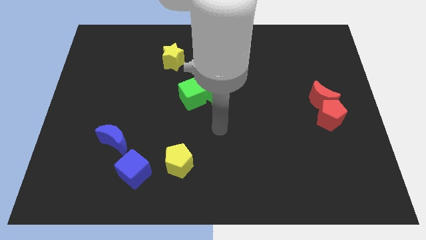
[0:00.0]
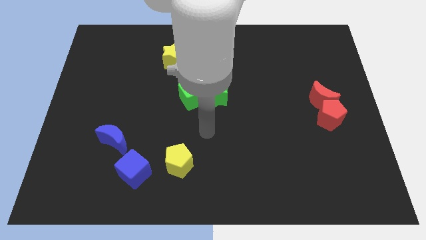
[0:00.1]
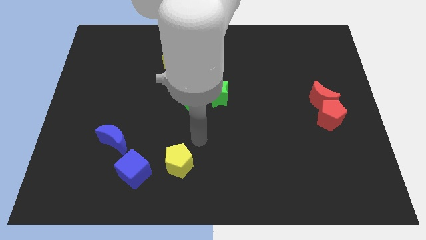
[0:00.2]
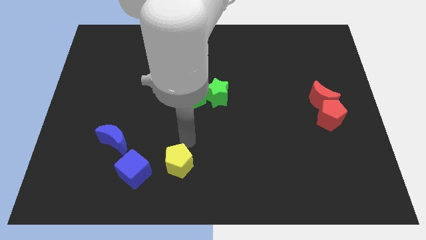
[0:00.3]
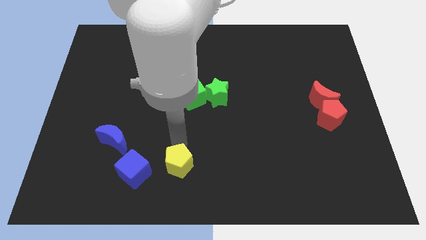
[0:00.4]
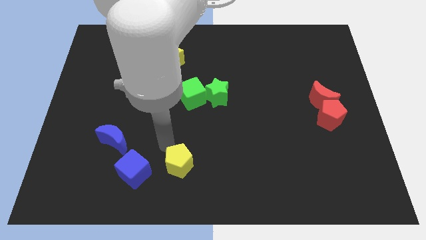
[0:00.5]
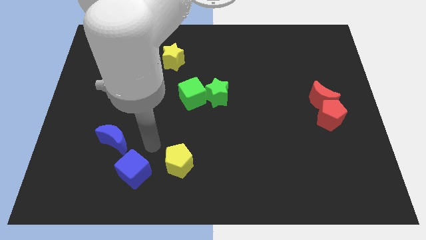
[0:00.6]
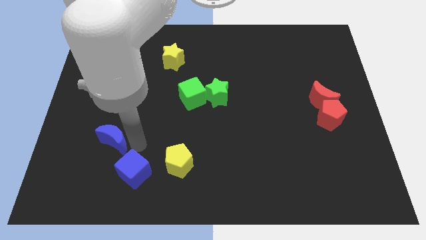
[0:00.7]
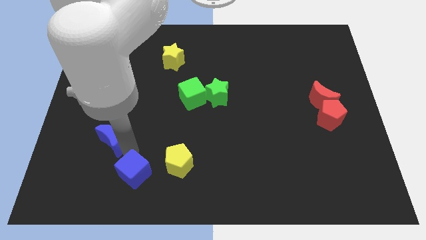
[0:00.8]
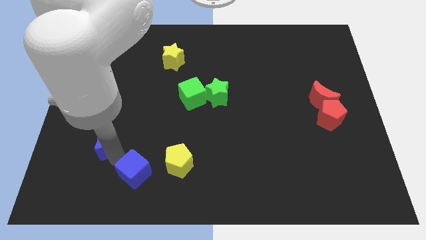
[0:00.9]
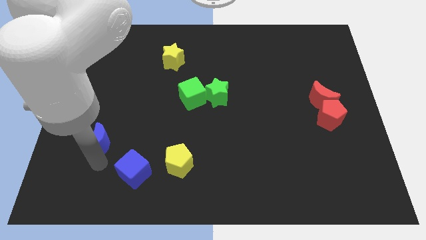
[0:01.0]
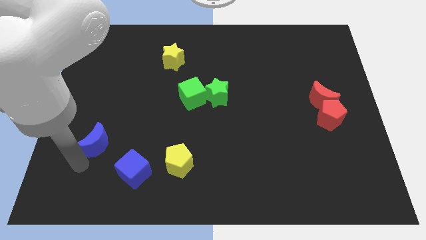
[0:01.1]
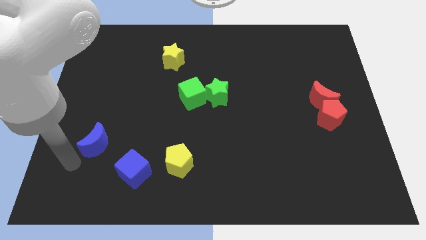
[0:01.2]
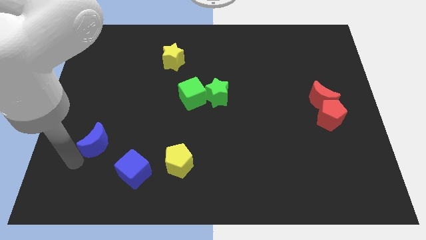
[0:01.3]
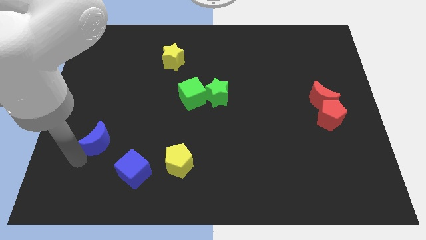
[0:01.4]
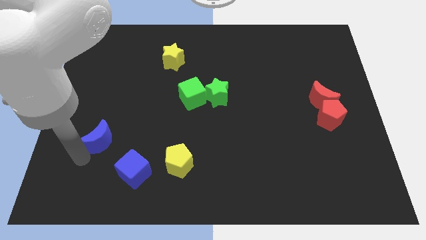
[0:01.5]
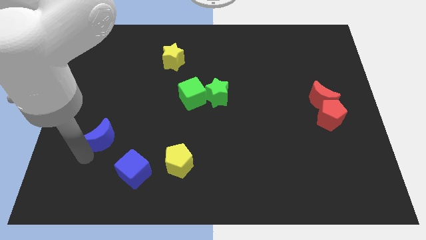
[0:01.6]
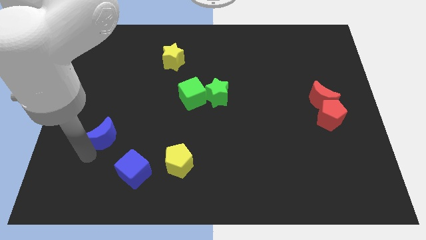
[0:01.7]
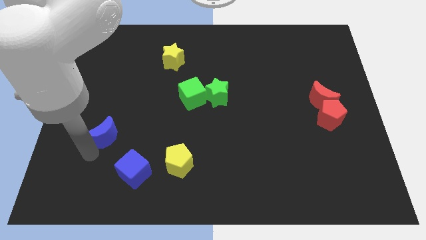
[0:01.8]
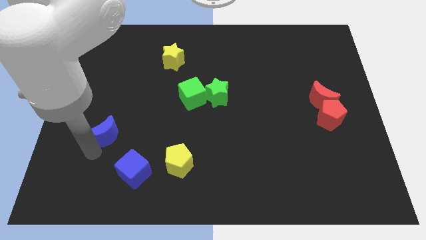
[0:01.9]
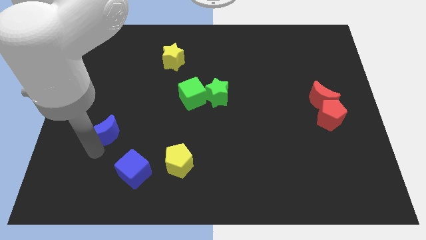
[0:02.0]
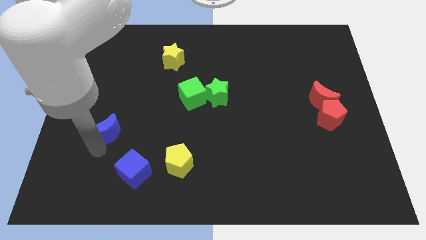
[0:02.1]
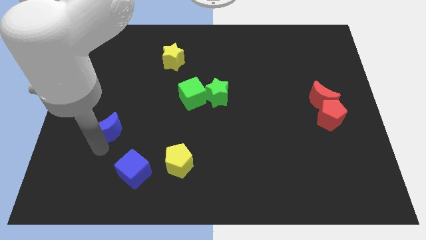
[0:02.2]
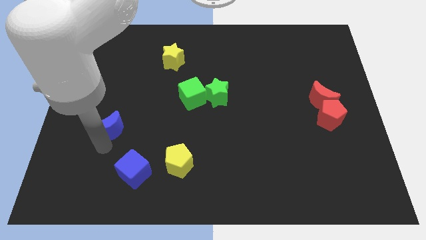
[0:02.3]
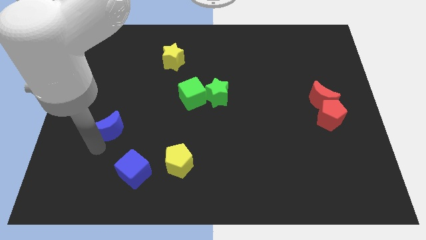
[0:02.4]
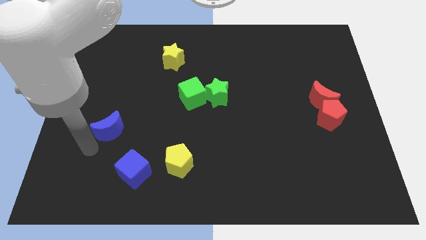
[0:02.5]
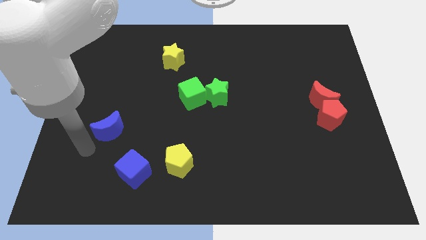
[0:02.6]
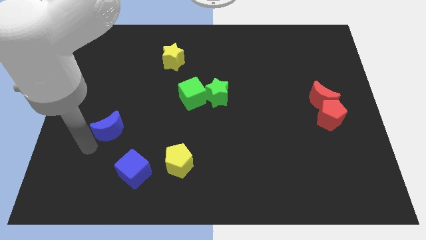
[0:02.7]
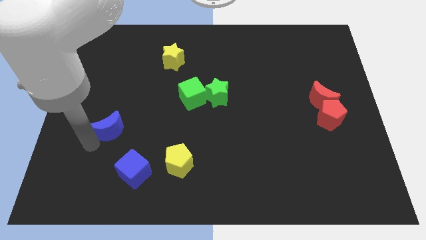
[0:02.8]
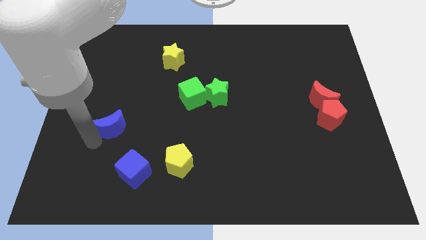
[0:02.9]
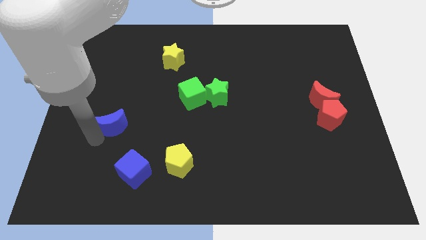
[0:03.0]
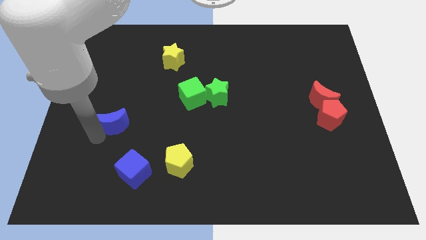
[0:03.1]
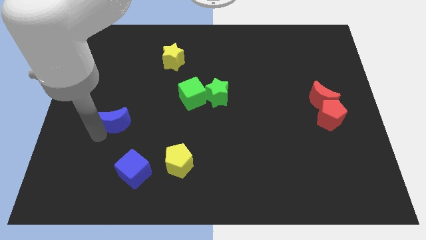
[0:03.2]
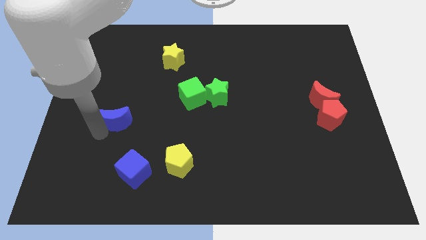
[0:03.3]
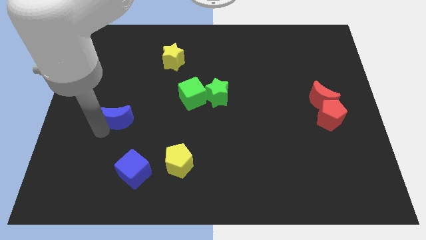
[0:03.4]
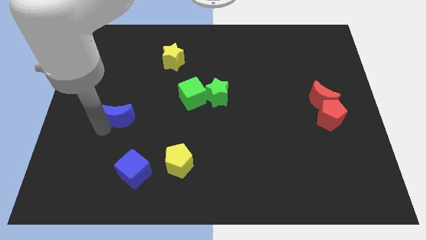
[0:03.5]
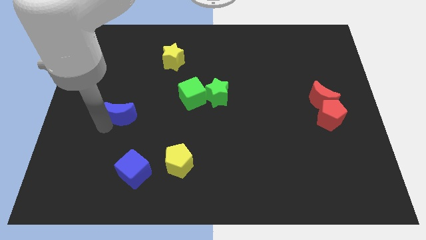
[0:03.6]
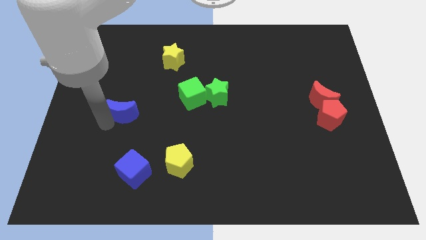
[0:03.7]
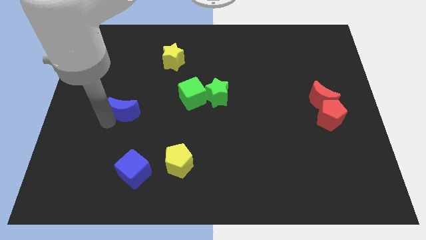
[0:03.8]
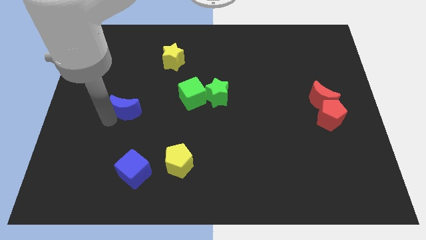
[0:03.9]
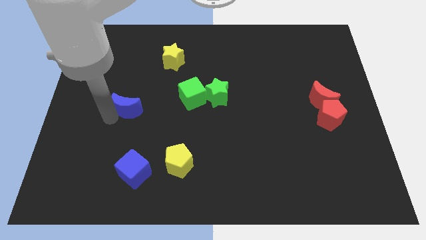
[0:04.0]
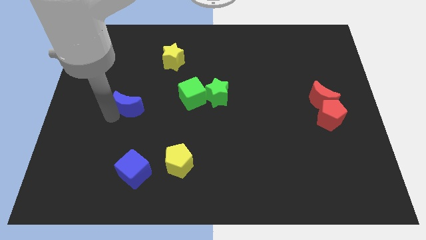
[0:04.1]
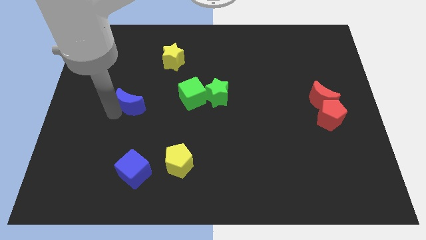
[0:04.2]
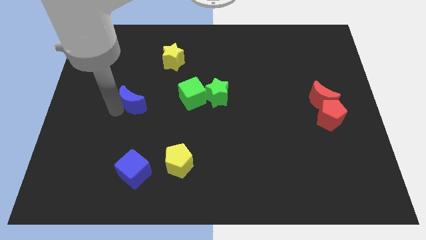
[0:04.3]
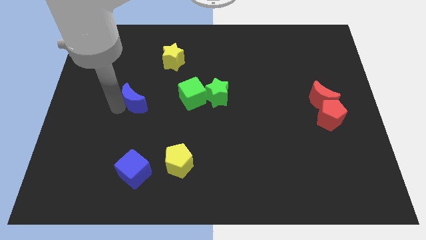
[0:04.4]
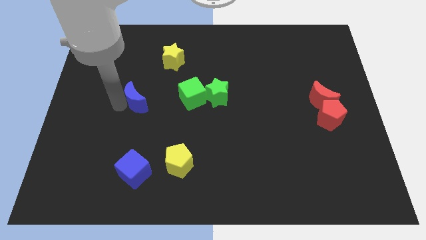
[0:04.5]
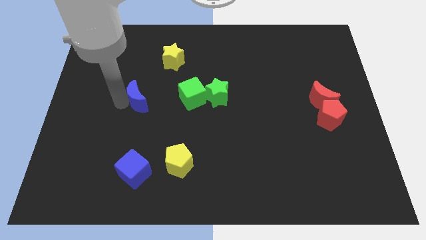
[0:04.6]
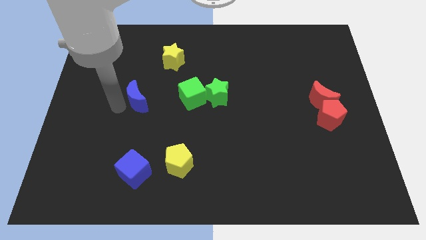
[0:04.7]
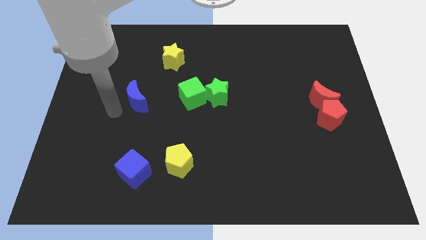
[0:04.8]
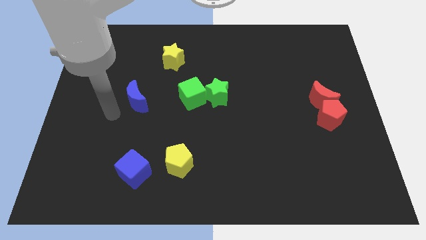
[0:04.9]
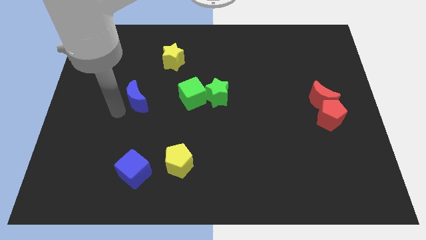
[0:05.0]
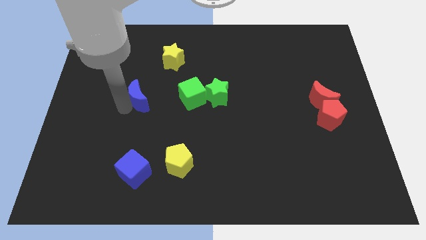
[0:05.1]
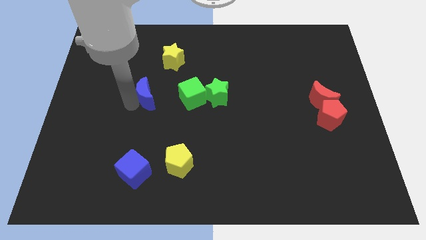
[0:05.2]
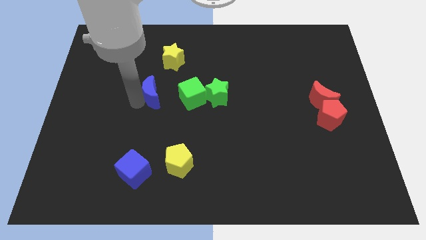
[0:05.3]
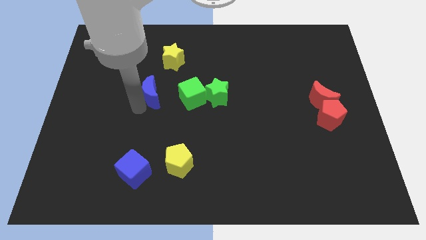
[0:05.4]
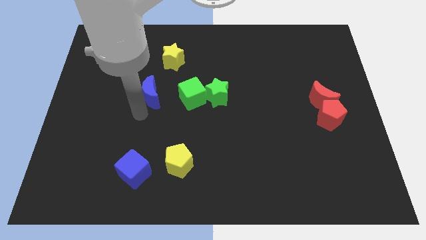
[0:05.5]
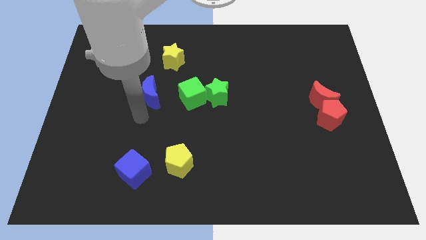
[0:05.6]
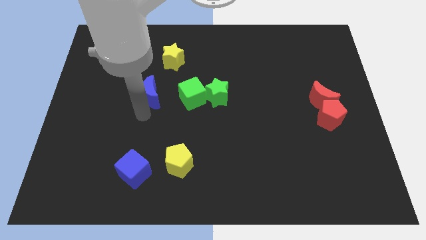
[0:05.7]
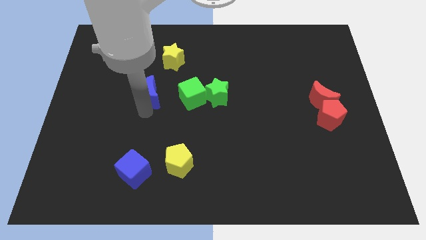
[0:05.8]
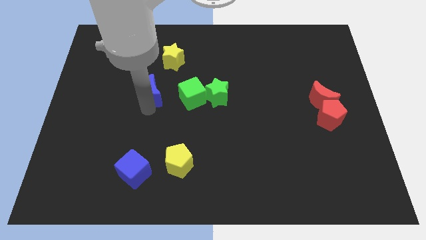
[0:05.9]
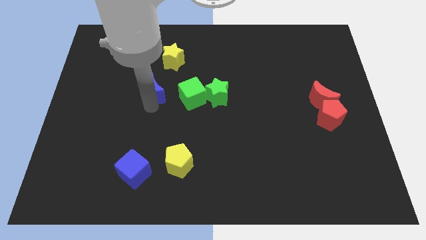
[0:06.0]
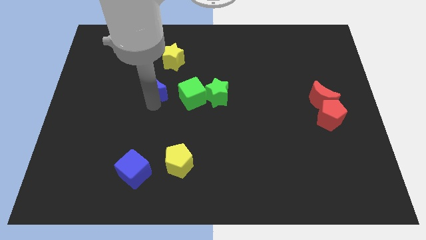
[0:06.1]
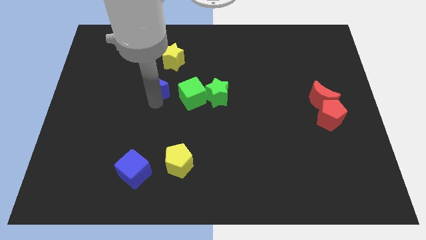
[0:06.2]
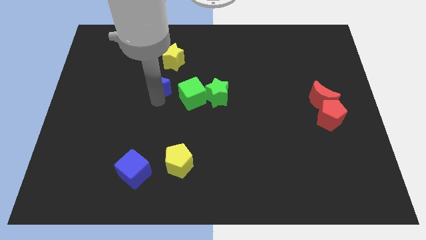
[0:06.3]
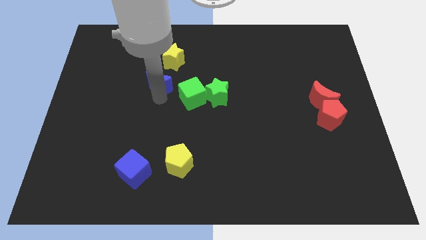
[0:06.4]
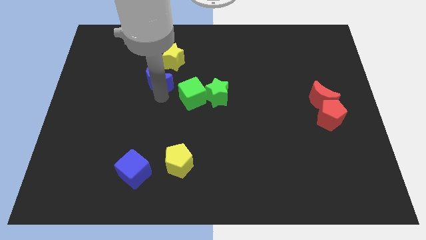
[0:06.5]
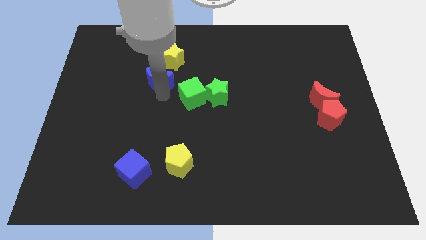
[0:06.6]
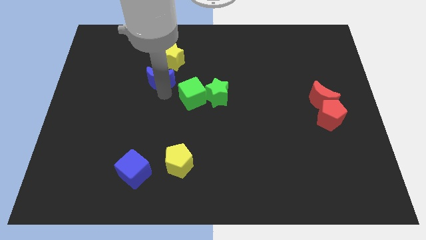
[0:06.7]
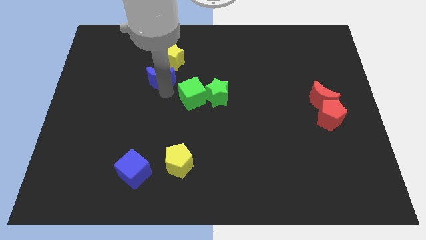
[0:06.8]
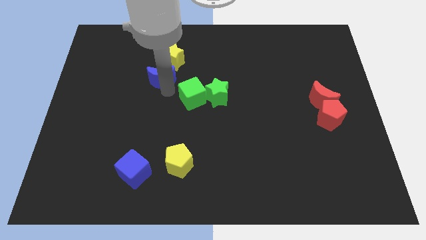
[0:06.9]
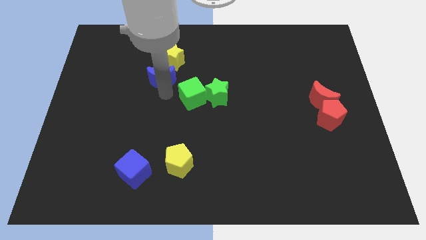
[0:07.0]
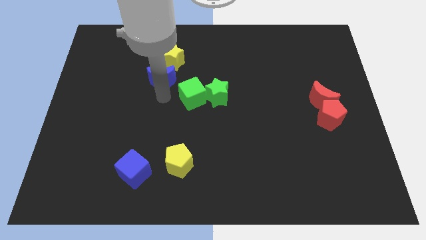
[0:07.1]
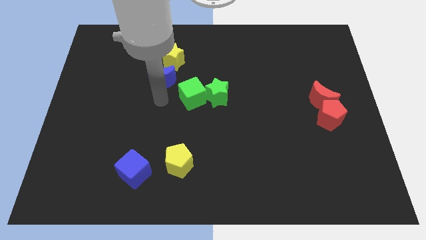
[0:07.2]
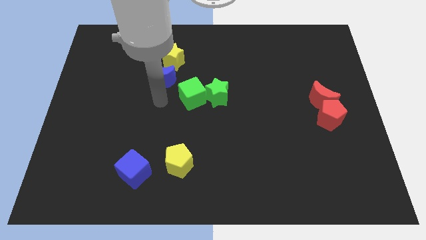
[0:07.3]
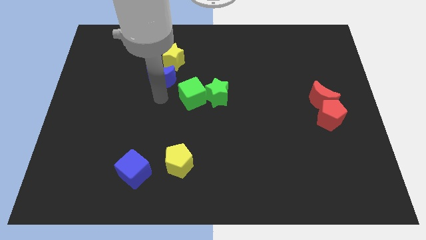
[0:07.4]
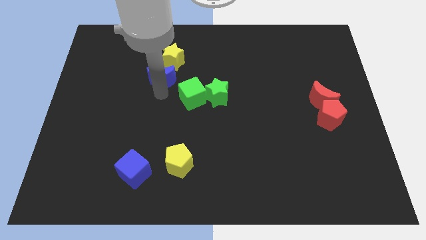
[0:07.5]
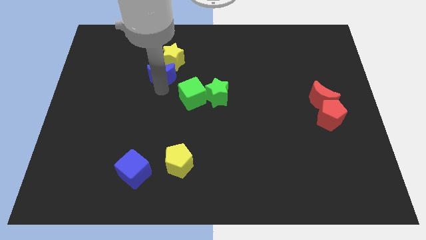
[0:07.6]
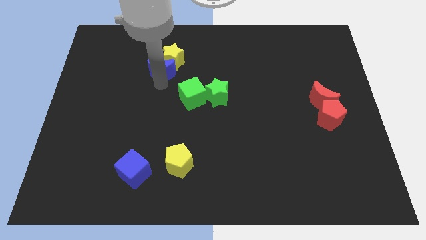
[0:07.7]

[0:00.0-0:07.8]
slide the blue moon close to the yellow star
